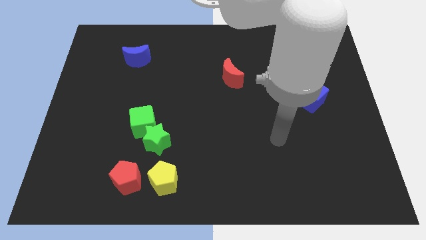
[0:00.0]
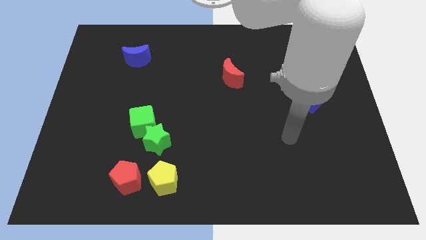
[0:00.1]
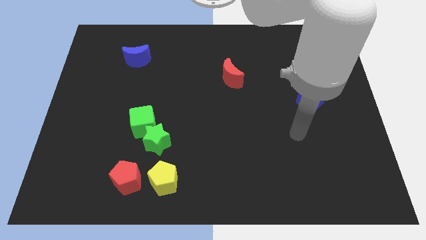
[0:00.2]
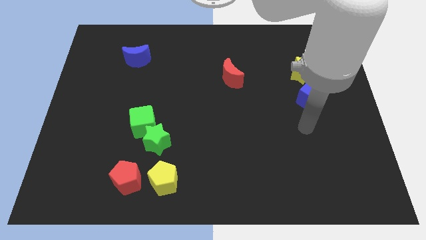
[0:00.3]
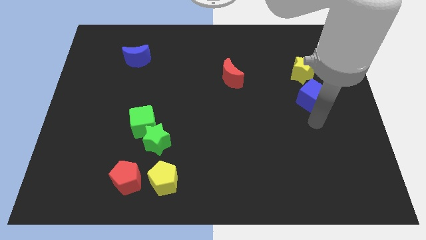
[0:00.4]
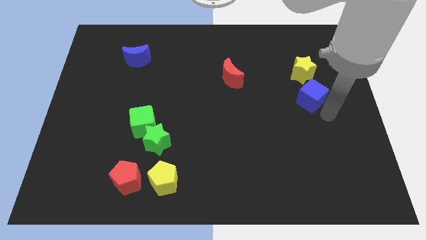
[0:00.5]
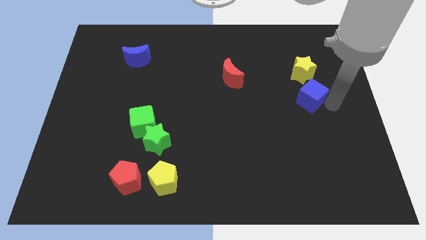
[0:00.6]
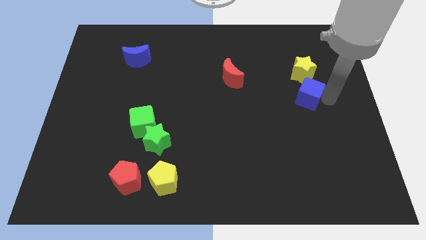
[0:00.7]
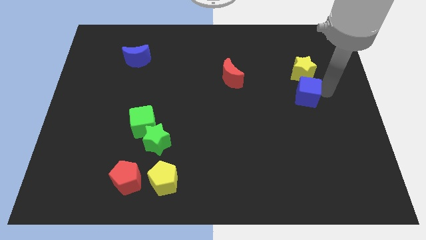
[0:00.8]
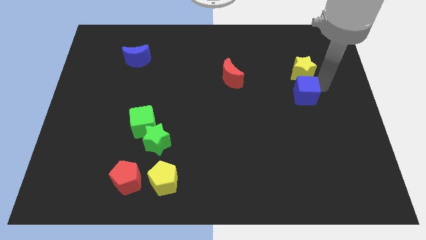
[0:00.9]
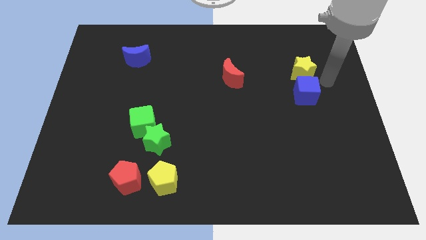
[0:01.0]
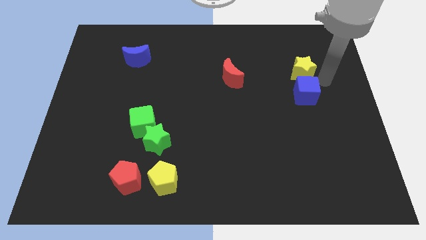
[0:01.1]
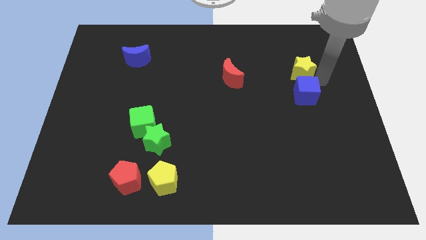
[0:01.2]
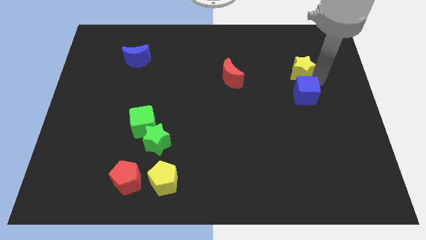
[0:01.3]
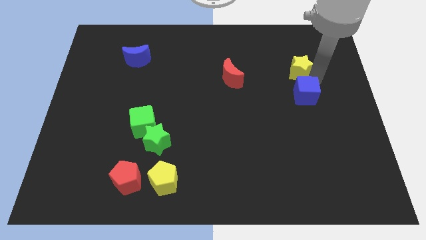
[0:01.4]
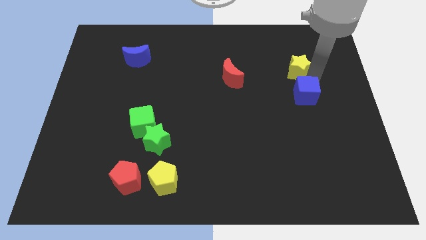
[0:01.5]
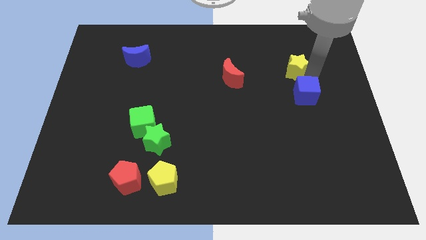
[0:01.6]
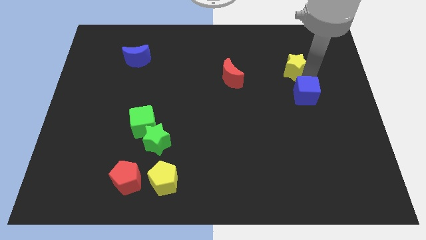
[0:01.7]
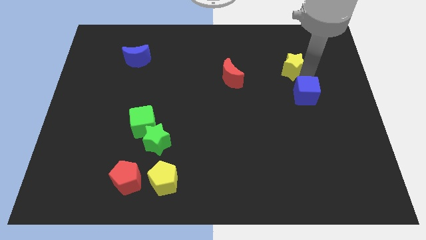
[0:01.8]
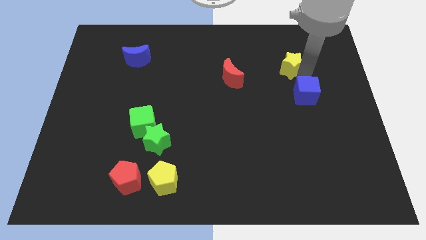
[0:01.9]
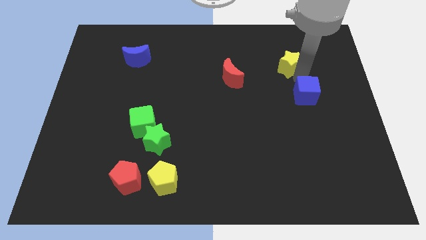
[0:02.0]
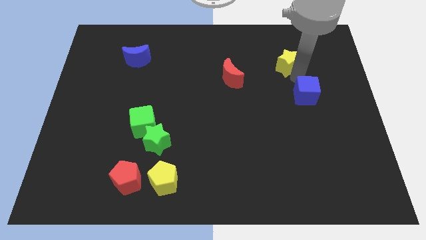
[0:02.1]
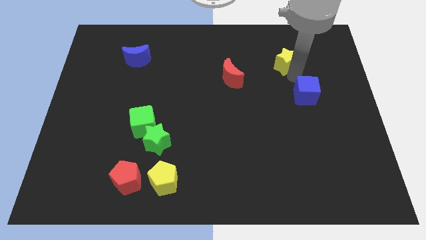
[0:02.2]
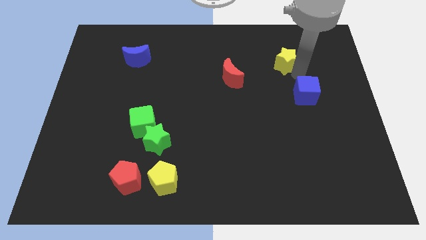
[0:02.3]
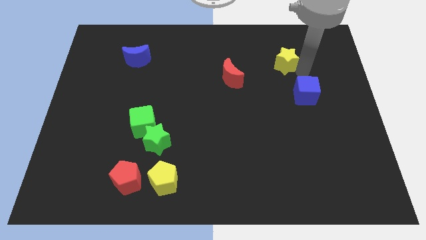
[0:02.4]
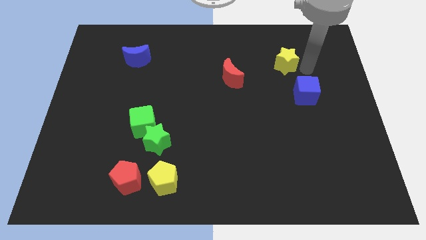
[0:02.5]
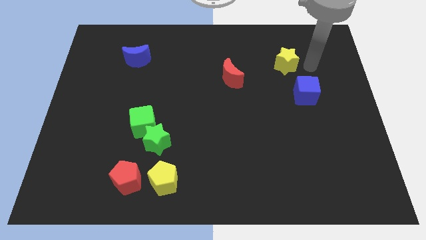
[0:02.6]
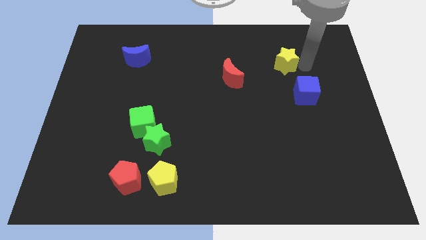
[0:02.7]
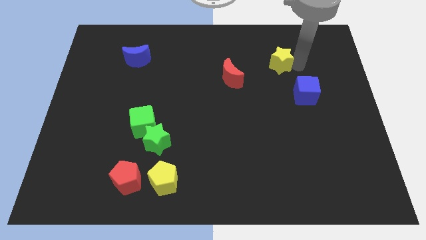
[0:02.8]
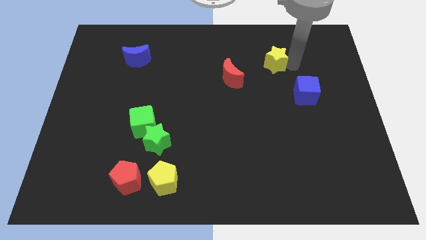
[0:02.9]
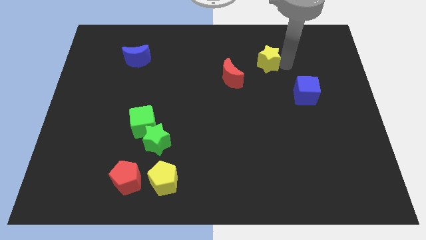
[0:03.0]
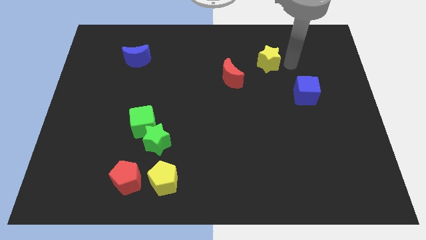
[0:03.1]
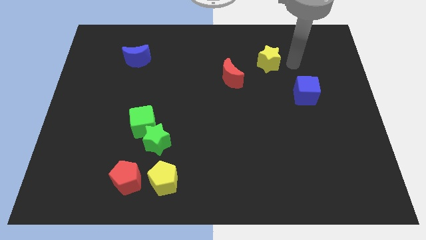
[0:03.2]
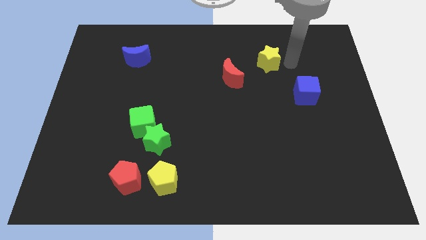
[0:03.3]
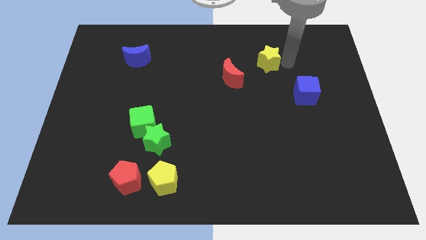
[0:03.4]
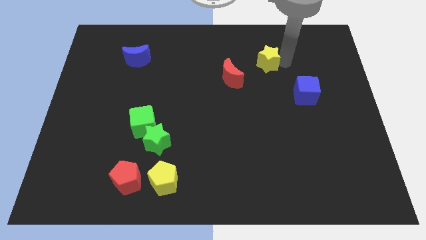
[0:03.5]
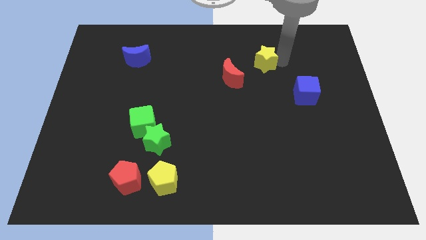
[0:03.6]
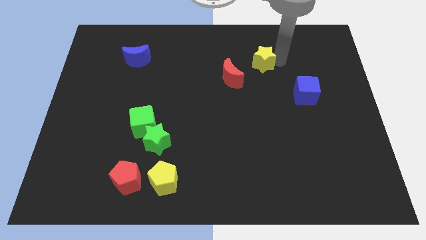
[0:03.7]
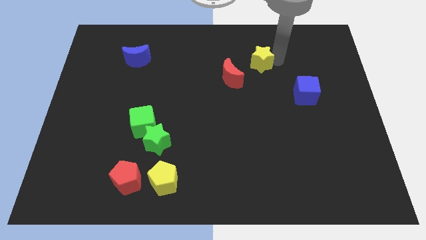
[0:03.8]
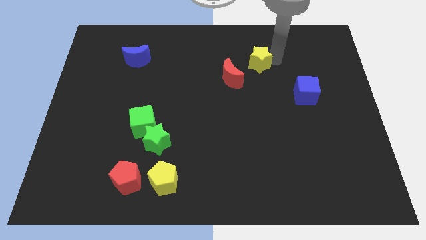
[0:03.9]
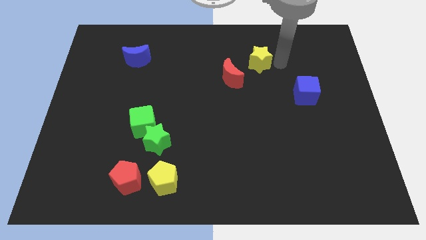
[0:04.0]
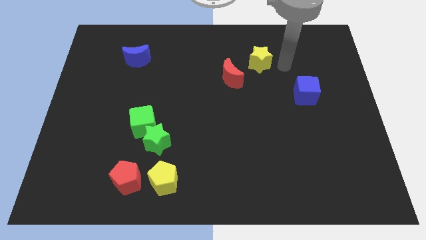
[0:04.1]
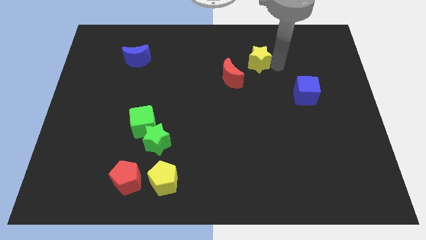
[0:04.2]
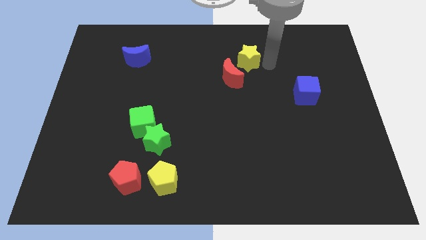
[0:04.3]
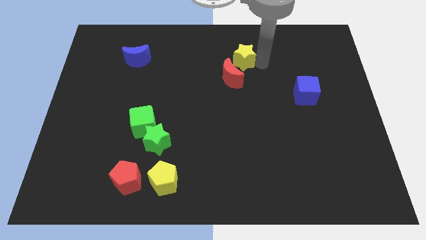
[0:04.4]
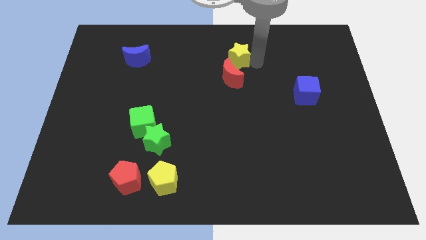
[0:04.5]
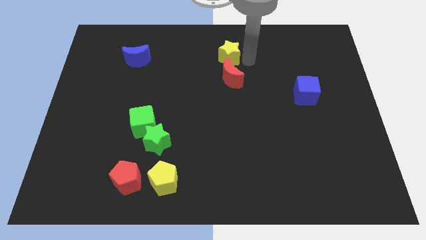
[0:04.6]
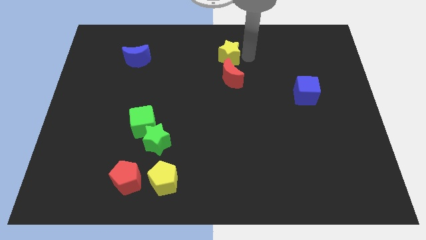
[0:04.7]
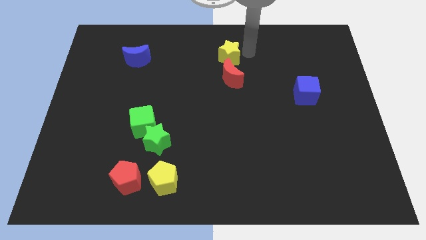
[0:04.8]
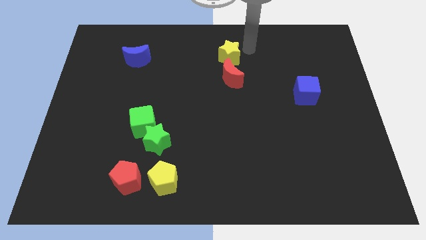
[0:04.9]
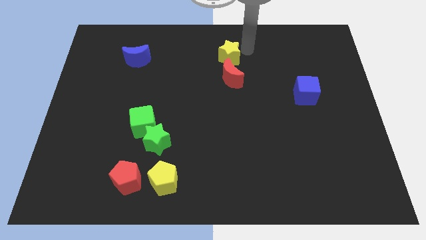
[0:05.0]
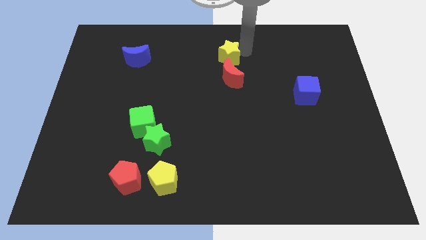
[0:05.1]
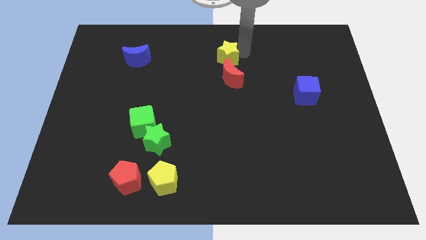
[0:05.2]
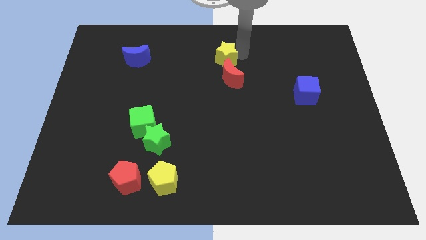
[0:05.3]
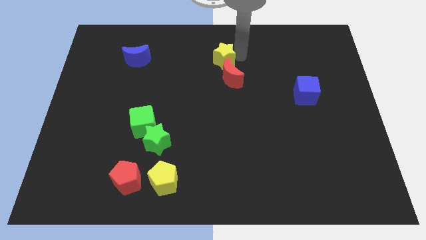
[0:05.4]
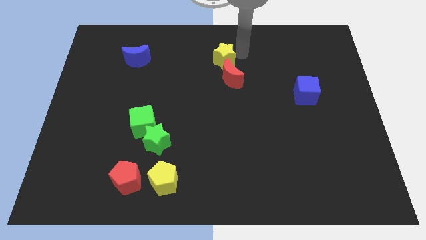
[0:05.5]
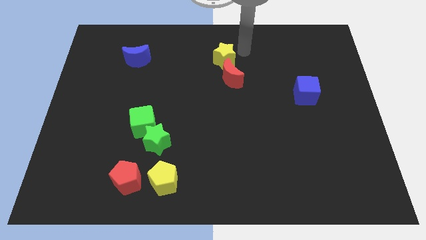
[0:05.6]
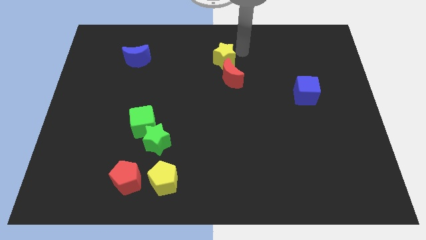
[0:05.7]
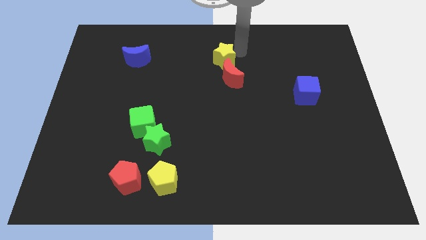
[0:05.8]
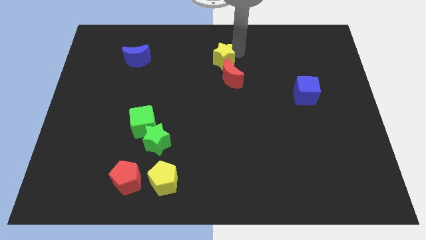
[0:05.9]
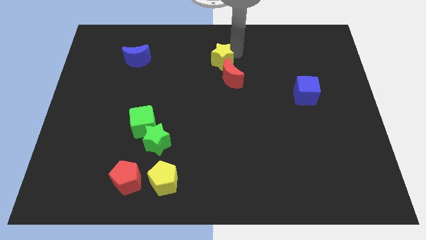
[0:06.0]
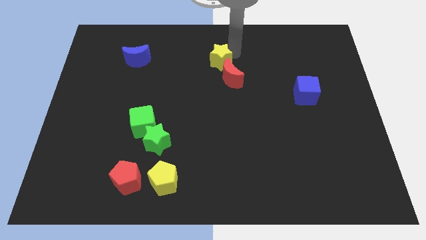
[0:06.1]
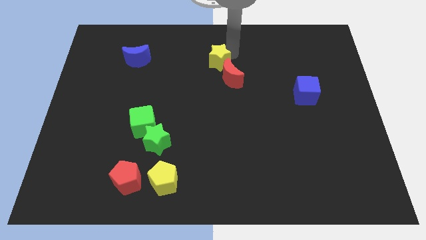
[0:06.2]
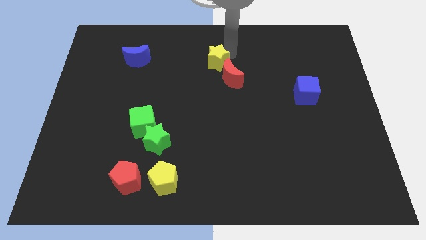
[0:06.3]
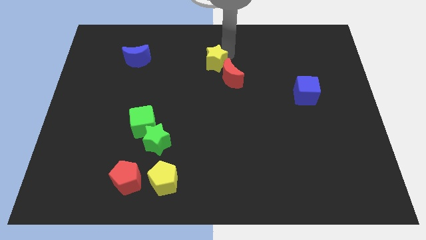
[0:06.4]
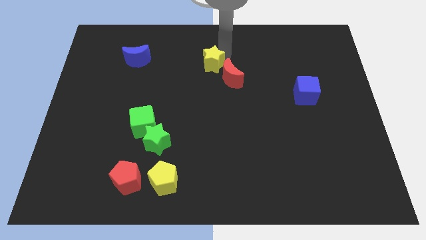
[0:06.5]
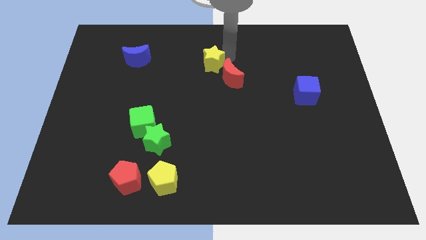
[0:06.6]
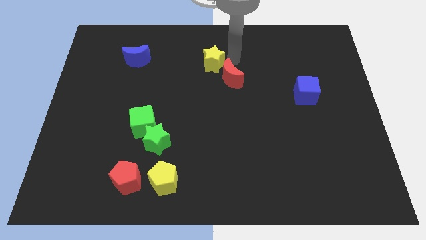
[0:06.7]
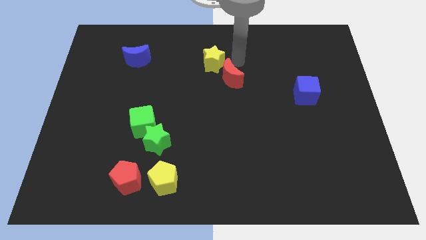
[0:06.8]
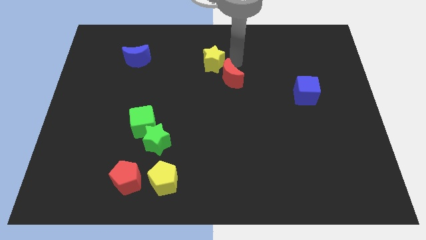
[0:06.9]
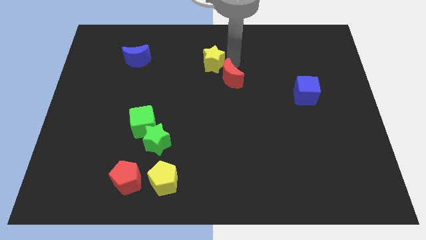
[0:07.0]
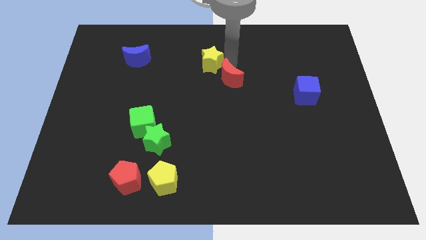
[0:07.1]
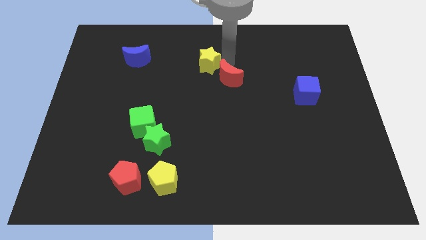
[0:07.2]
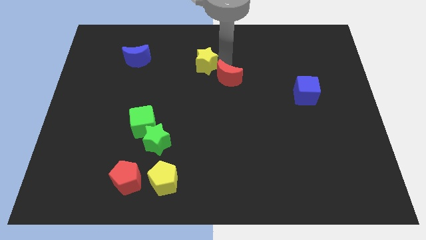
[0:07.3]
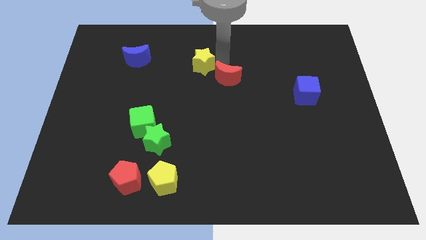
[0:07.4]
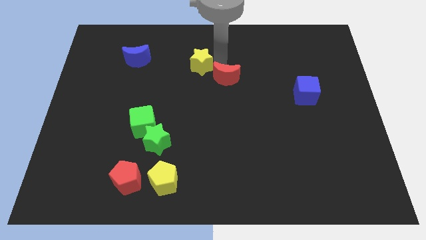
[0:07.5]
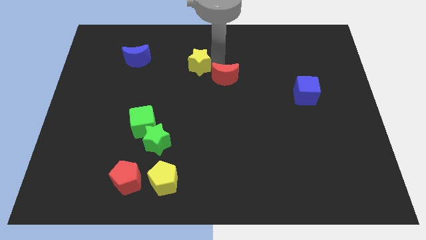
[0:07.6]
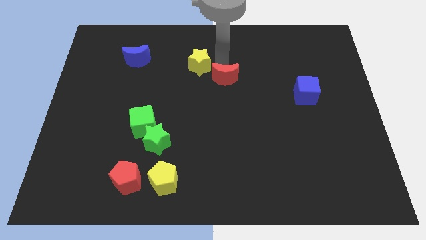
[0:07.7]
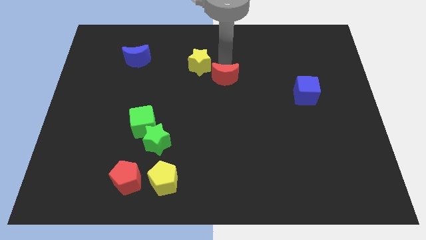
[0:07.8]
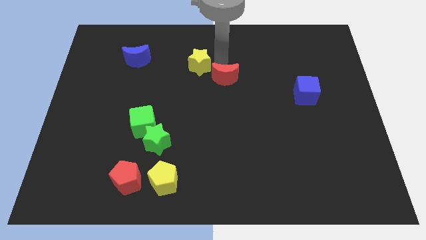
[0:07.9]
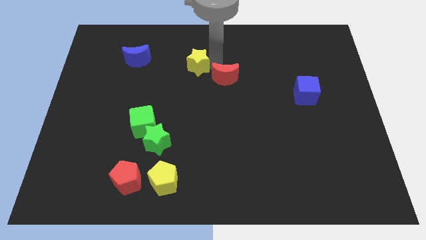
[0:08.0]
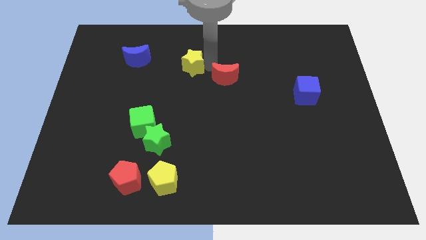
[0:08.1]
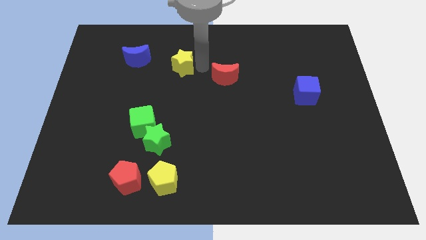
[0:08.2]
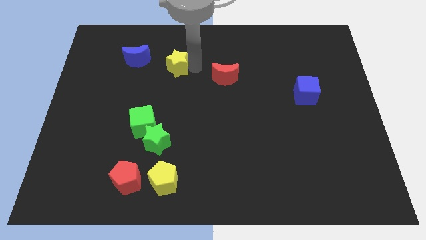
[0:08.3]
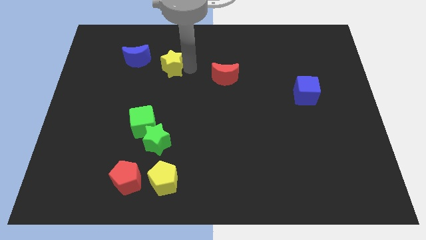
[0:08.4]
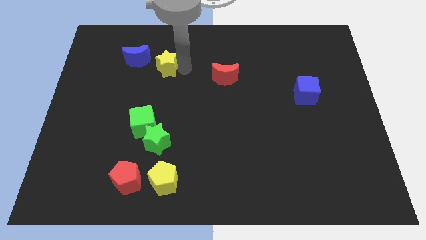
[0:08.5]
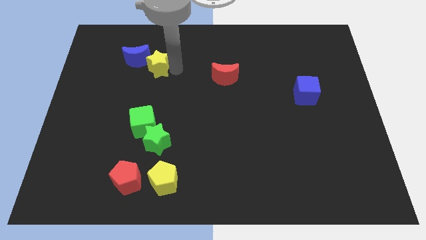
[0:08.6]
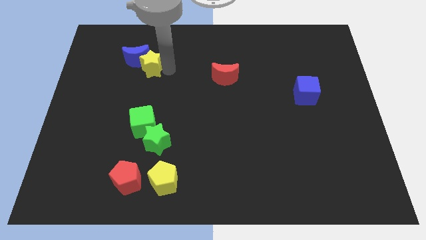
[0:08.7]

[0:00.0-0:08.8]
push the yellow star close to the blue moon
